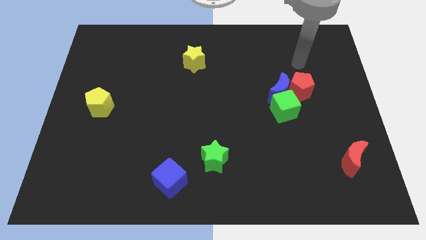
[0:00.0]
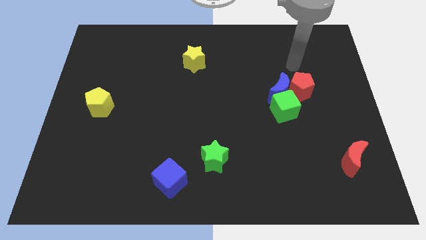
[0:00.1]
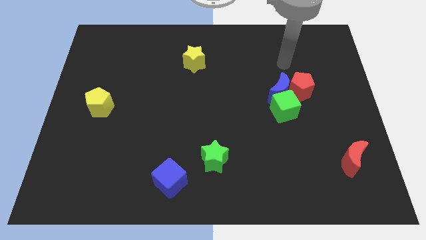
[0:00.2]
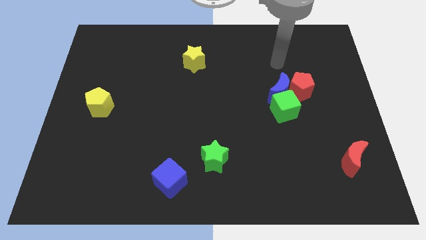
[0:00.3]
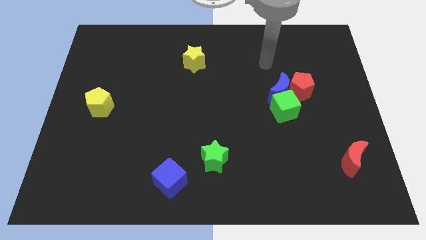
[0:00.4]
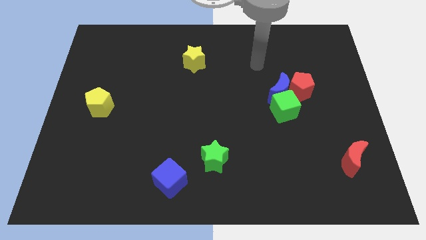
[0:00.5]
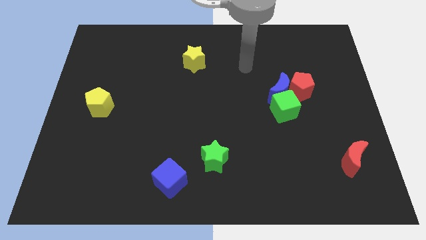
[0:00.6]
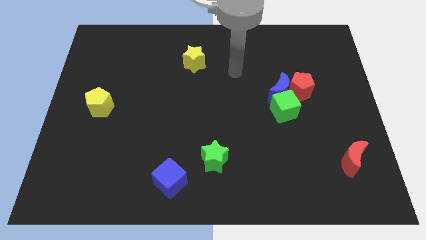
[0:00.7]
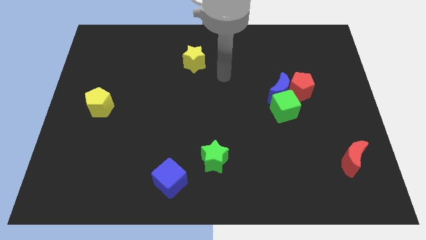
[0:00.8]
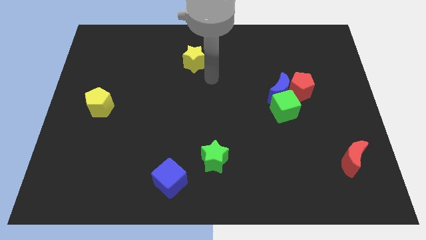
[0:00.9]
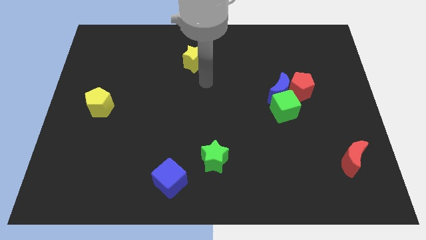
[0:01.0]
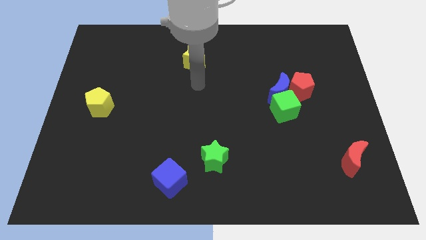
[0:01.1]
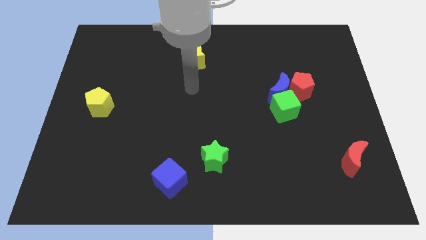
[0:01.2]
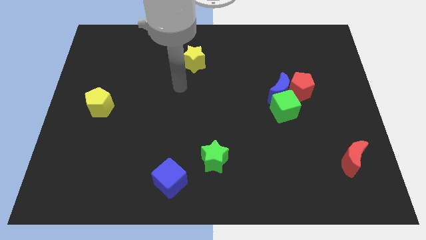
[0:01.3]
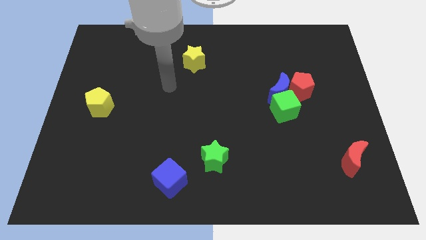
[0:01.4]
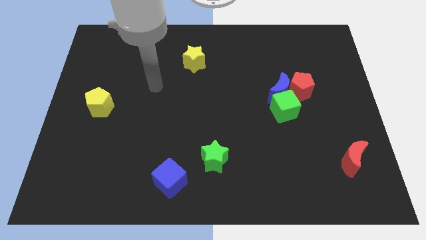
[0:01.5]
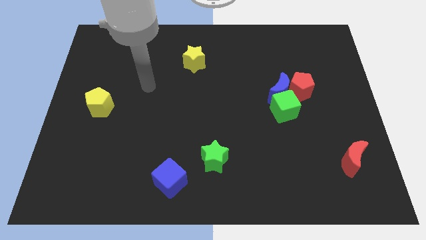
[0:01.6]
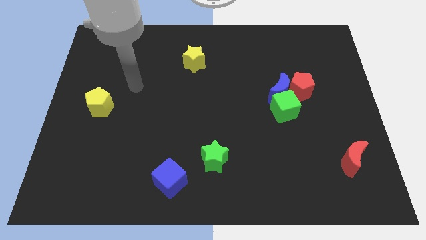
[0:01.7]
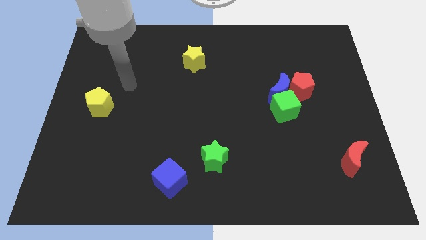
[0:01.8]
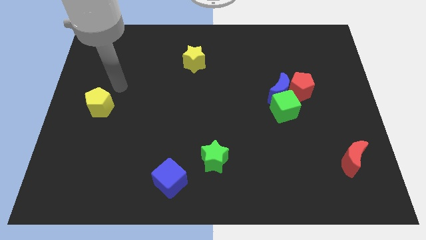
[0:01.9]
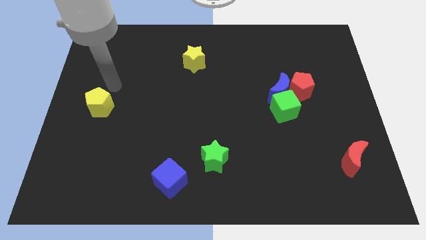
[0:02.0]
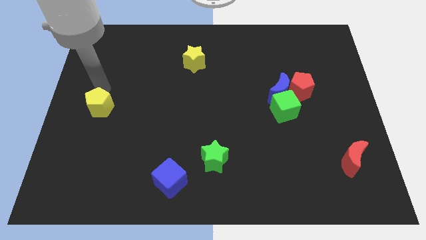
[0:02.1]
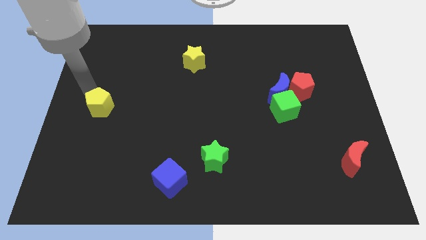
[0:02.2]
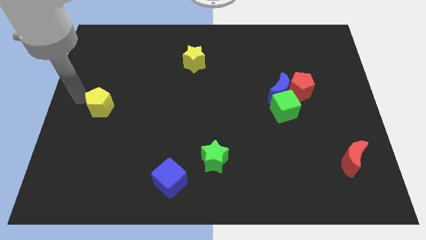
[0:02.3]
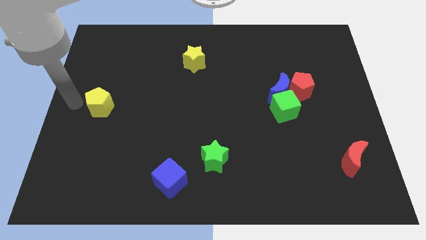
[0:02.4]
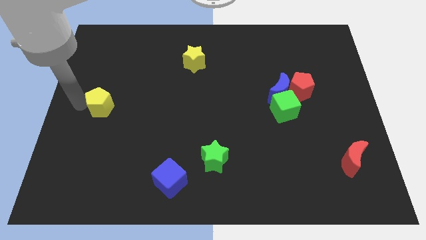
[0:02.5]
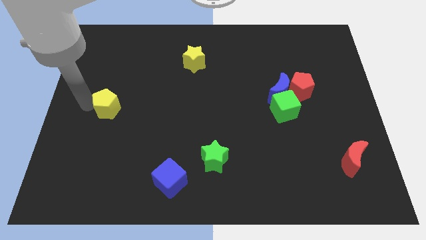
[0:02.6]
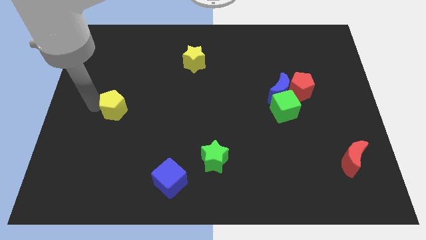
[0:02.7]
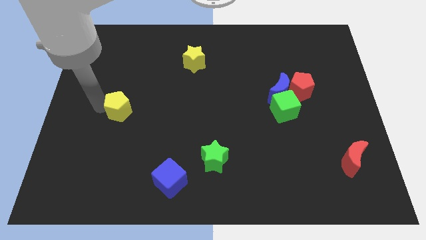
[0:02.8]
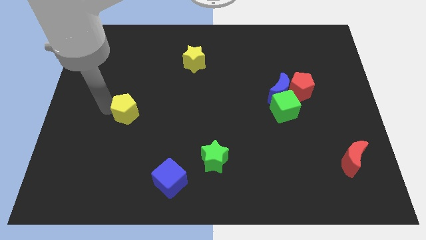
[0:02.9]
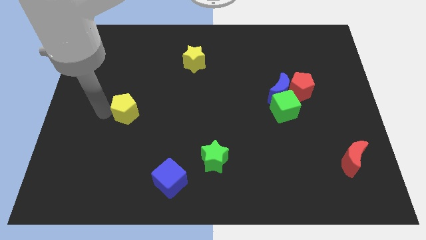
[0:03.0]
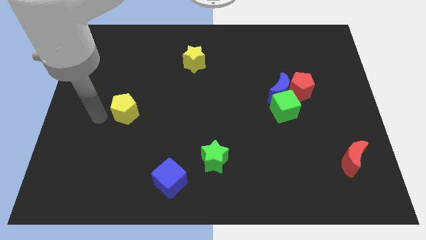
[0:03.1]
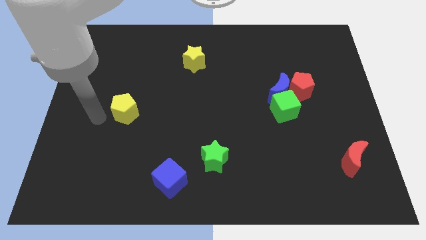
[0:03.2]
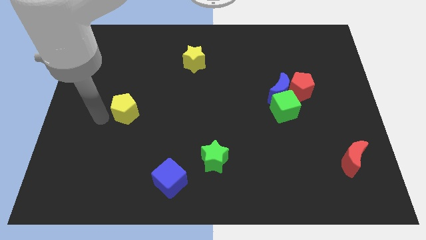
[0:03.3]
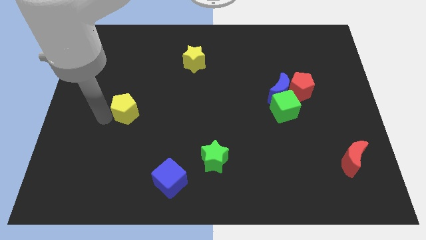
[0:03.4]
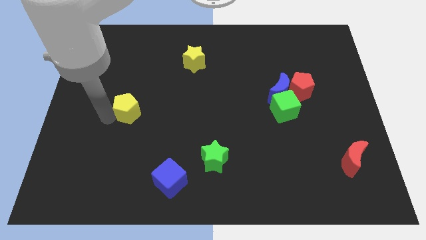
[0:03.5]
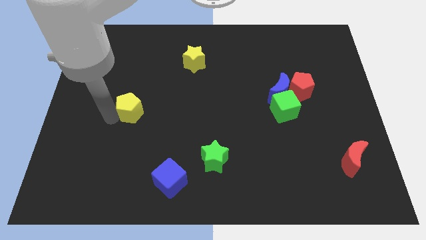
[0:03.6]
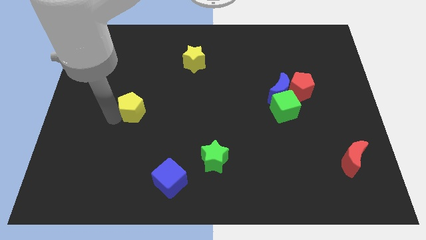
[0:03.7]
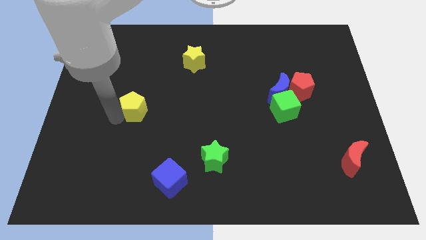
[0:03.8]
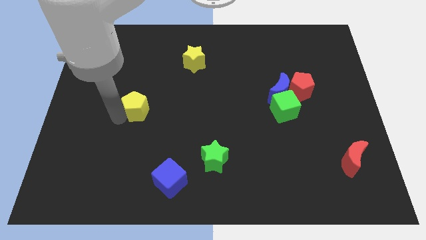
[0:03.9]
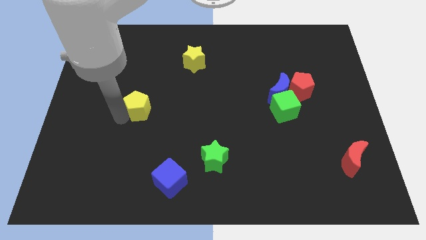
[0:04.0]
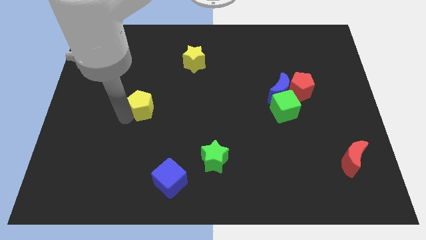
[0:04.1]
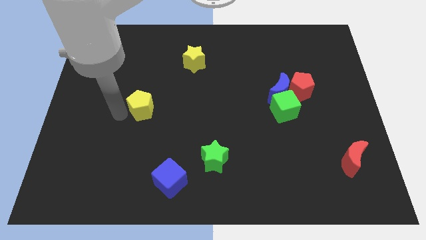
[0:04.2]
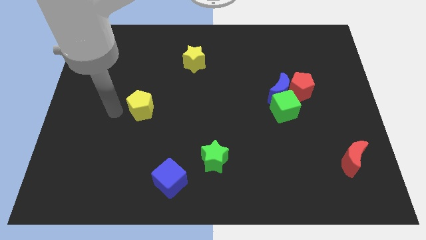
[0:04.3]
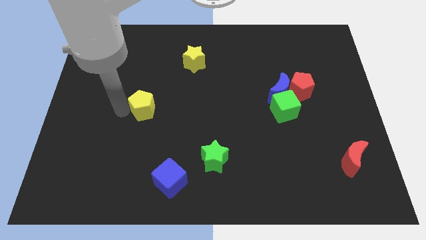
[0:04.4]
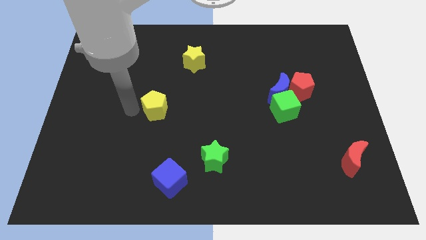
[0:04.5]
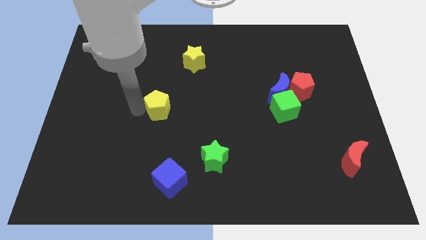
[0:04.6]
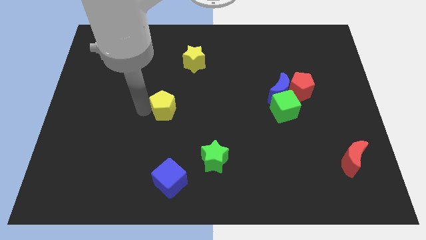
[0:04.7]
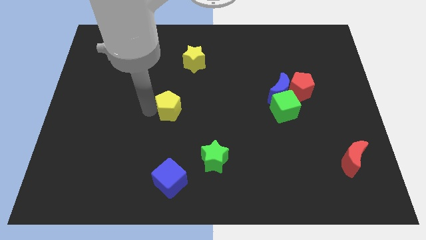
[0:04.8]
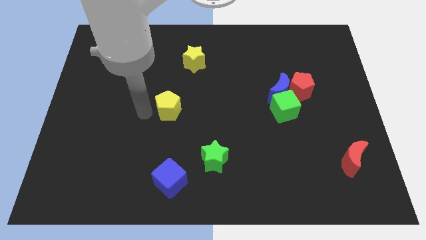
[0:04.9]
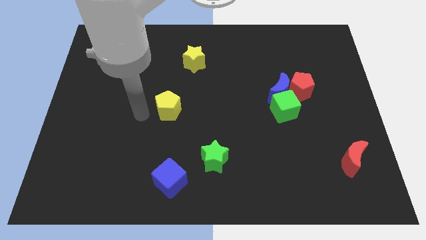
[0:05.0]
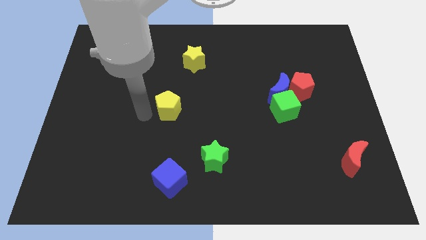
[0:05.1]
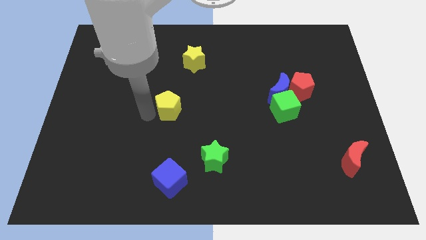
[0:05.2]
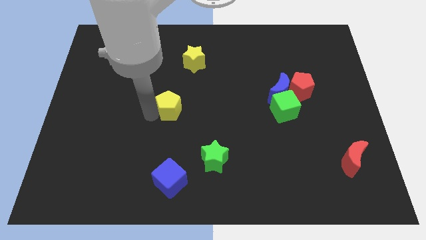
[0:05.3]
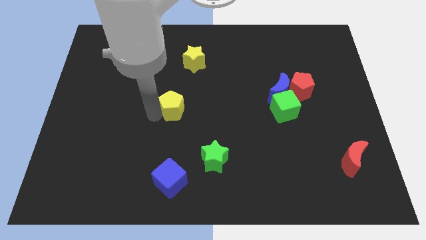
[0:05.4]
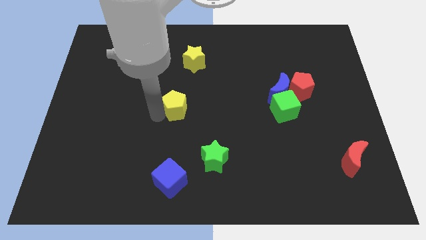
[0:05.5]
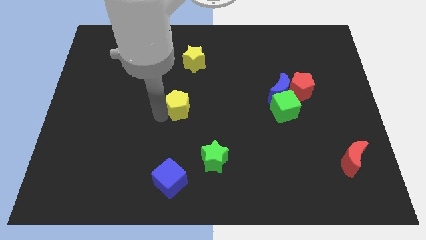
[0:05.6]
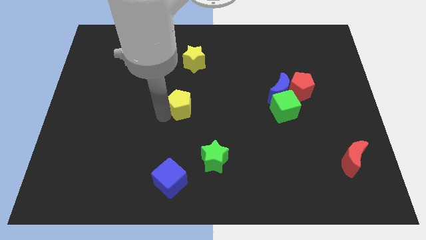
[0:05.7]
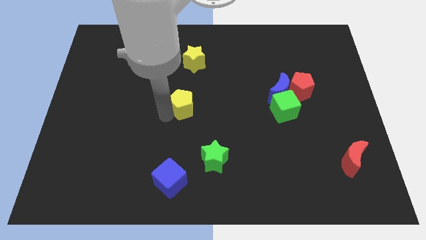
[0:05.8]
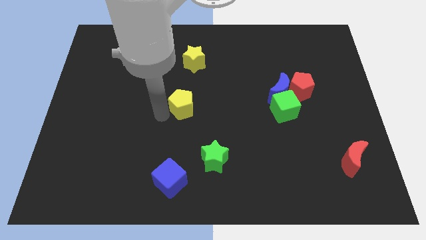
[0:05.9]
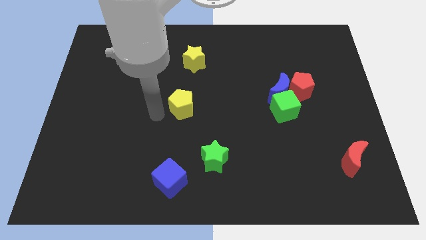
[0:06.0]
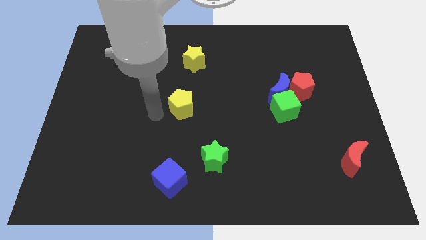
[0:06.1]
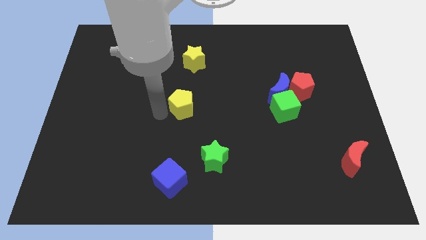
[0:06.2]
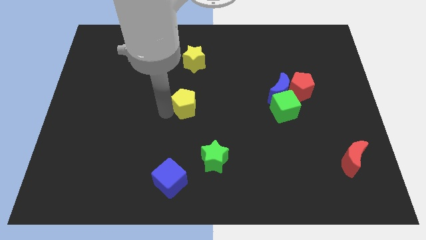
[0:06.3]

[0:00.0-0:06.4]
push the yellow pentagon right

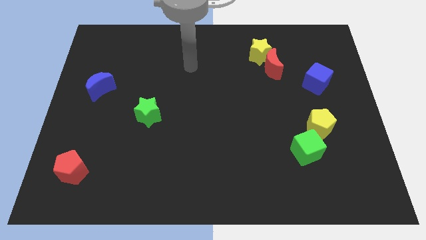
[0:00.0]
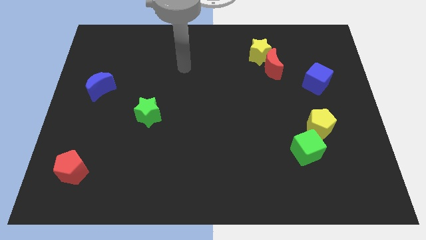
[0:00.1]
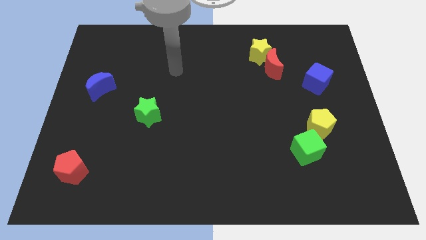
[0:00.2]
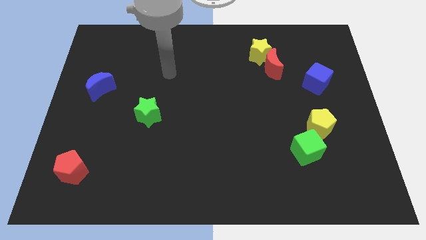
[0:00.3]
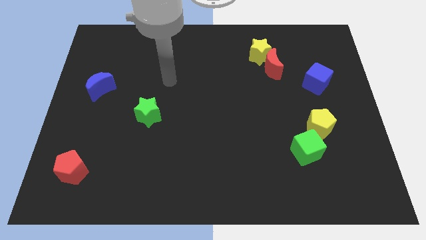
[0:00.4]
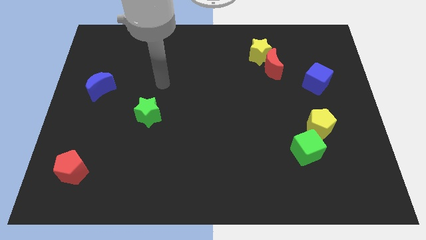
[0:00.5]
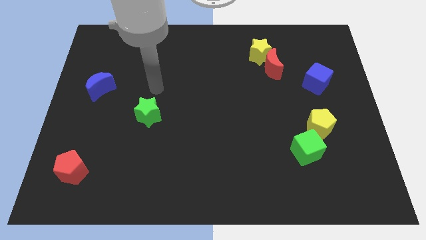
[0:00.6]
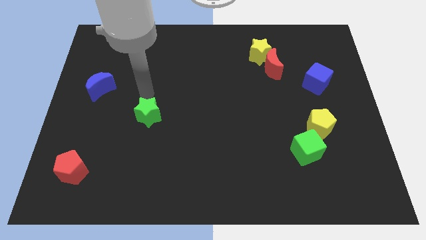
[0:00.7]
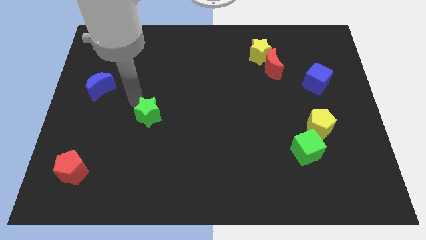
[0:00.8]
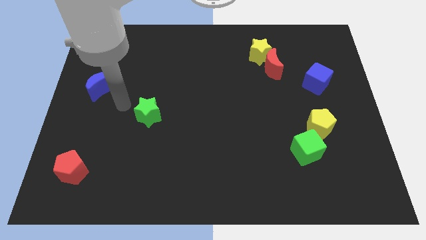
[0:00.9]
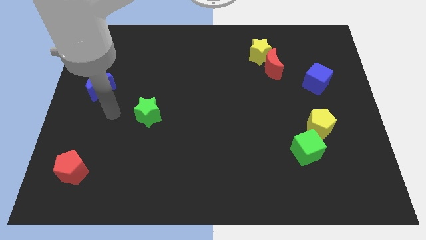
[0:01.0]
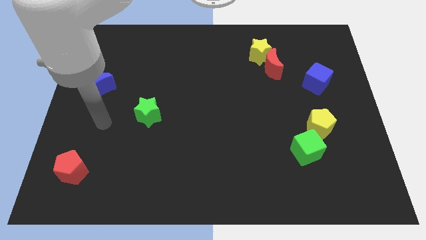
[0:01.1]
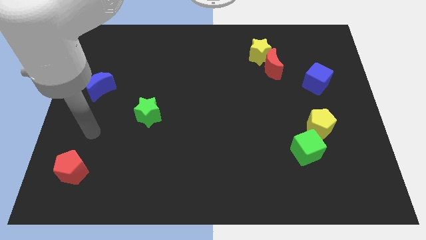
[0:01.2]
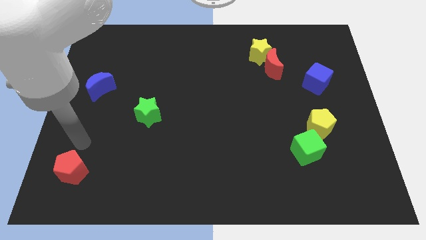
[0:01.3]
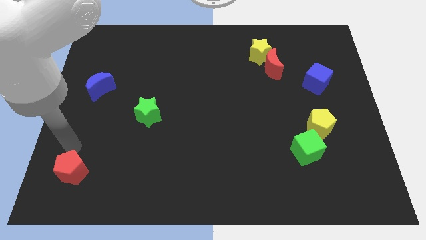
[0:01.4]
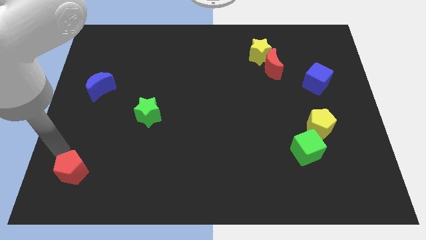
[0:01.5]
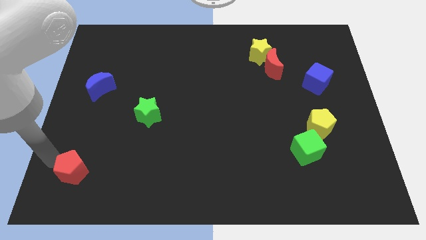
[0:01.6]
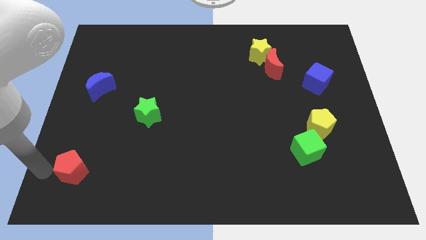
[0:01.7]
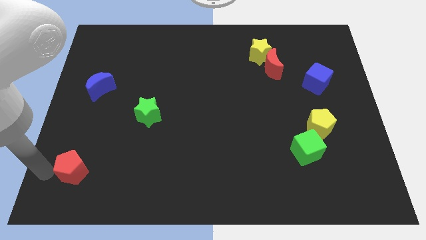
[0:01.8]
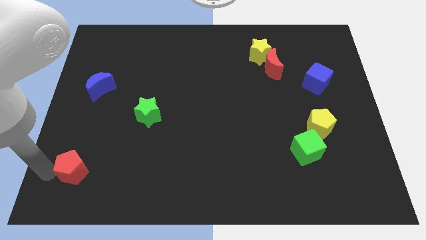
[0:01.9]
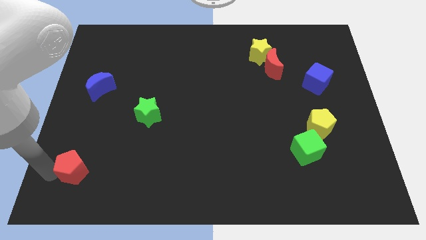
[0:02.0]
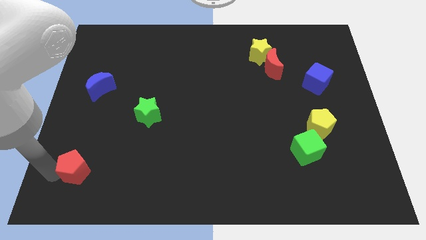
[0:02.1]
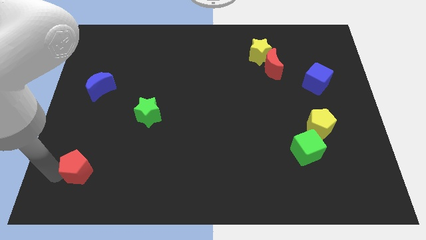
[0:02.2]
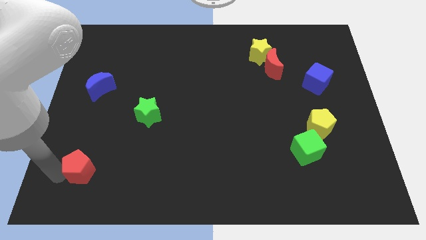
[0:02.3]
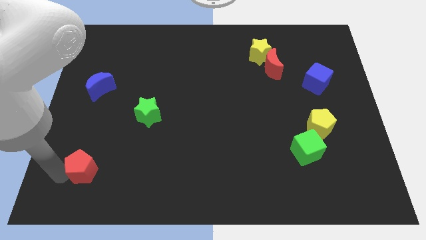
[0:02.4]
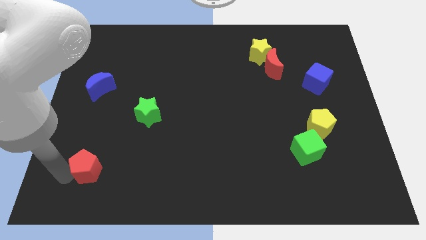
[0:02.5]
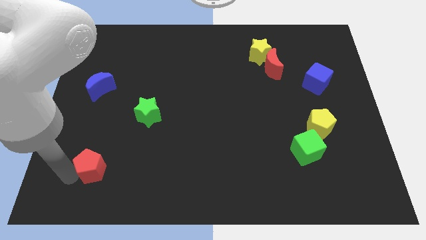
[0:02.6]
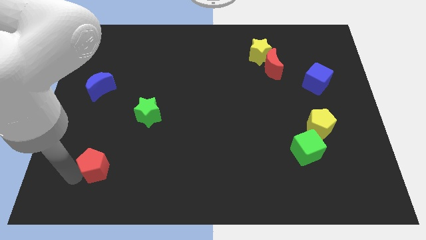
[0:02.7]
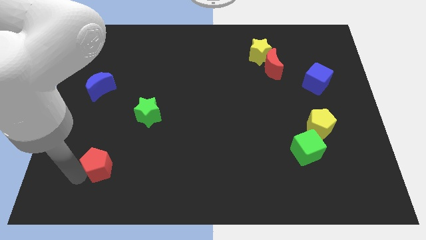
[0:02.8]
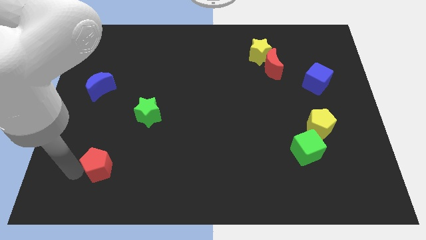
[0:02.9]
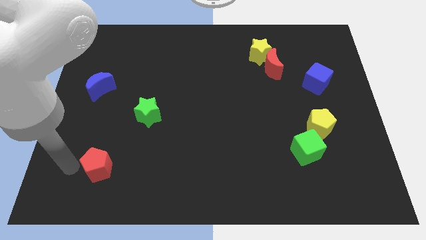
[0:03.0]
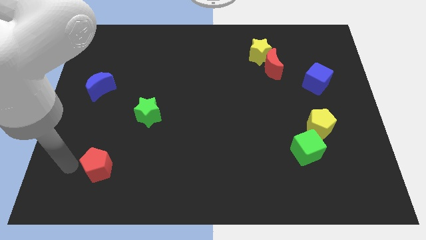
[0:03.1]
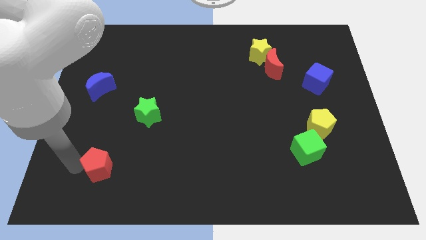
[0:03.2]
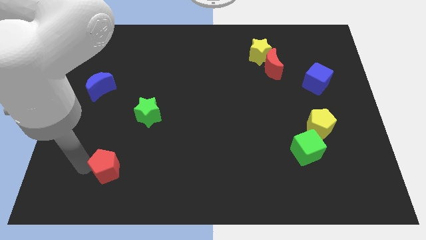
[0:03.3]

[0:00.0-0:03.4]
move the red pentagon a bit to the right
